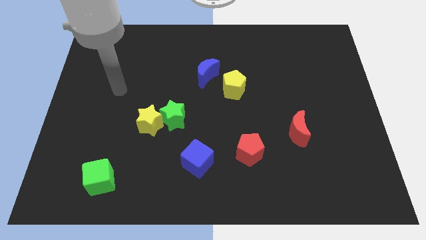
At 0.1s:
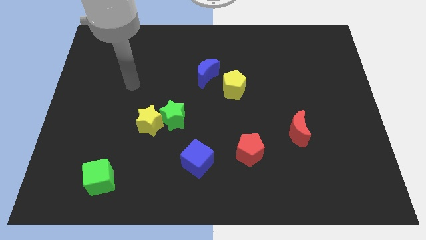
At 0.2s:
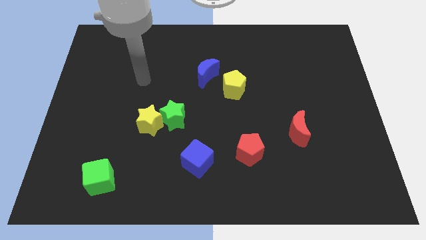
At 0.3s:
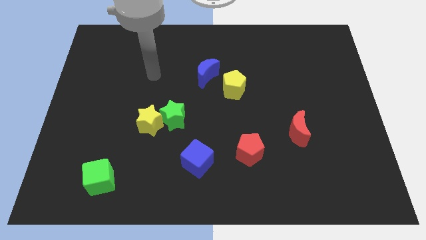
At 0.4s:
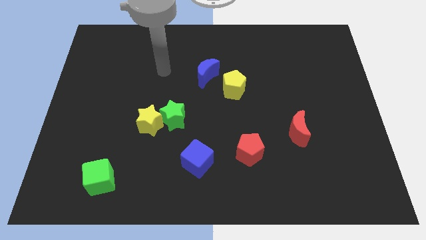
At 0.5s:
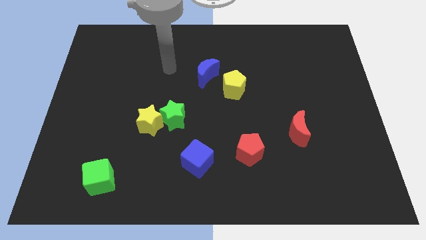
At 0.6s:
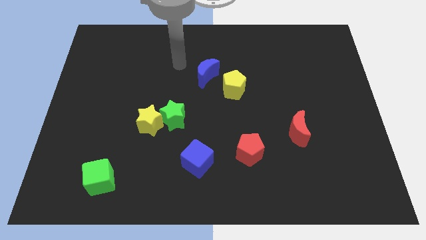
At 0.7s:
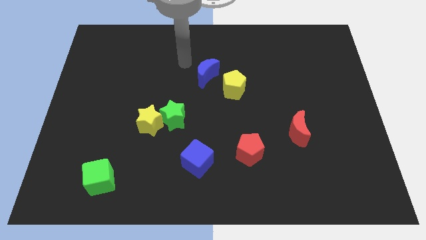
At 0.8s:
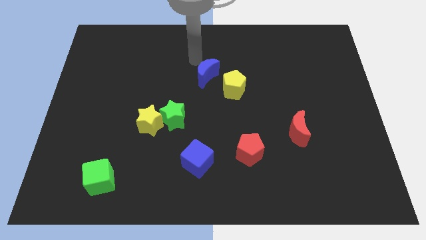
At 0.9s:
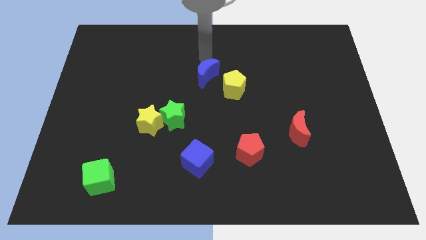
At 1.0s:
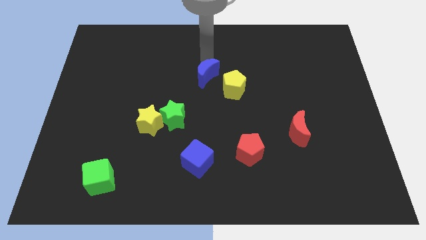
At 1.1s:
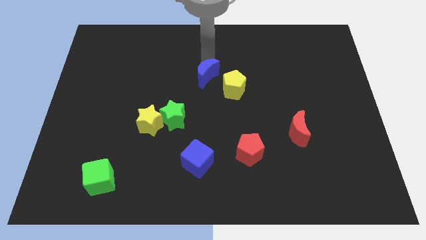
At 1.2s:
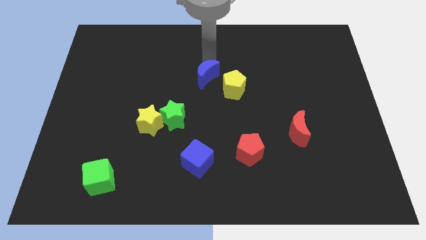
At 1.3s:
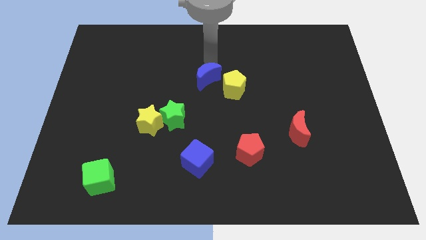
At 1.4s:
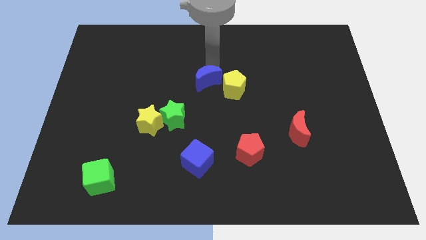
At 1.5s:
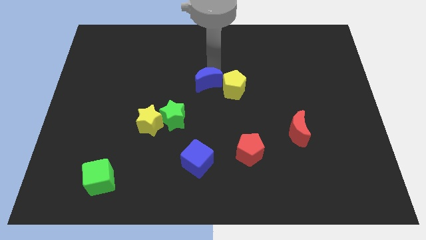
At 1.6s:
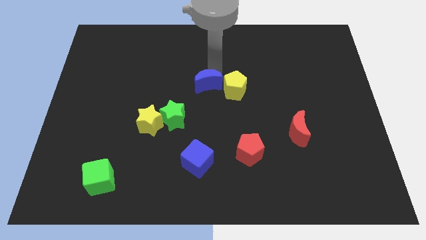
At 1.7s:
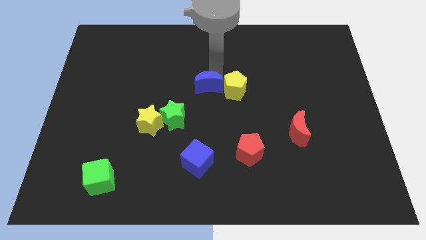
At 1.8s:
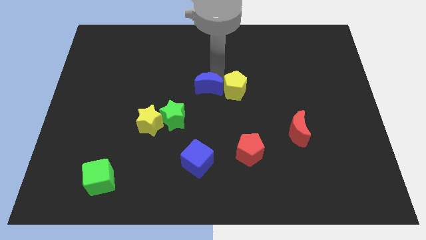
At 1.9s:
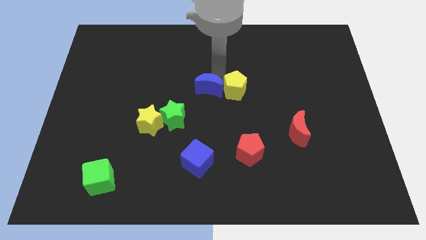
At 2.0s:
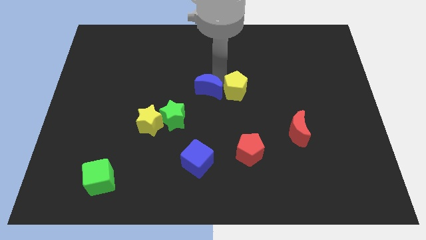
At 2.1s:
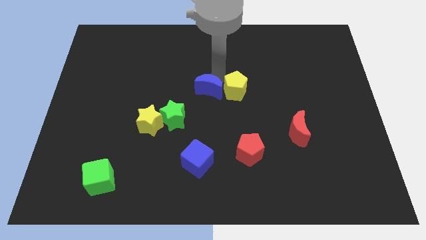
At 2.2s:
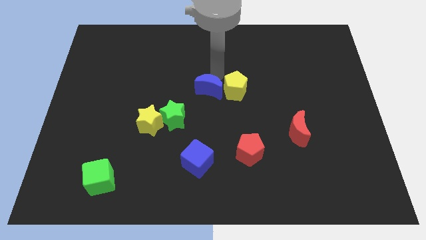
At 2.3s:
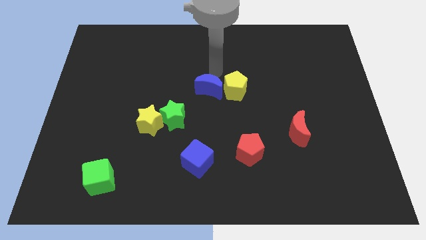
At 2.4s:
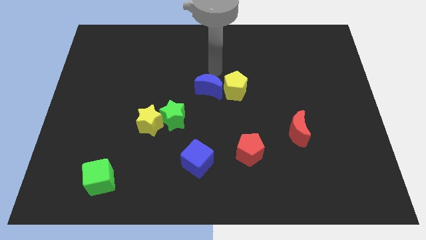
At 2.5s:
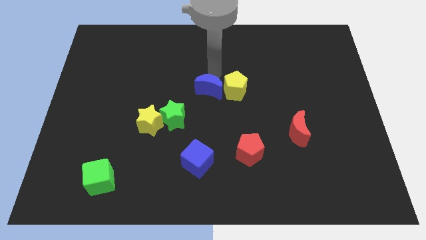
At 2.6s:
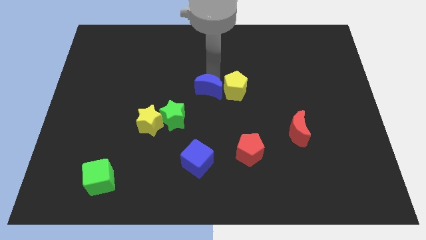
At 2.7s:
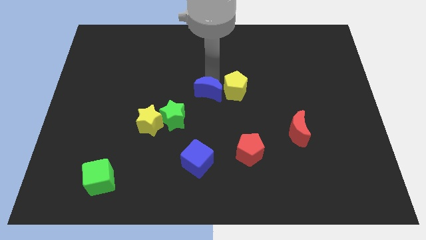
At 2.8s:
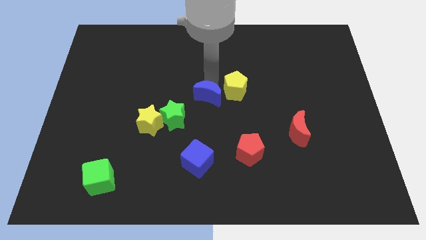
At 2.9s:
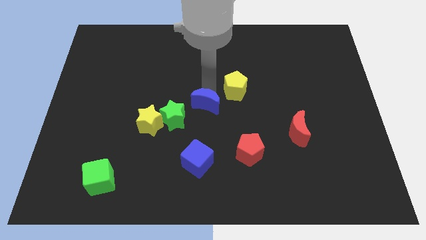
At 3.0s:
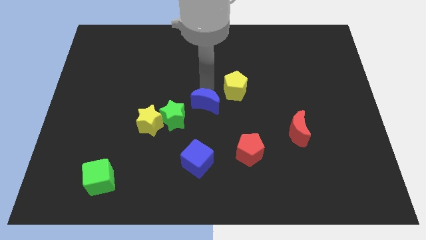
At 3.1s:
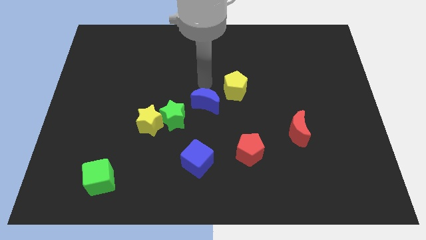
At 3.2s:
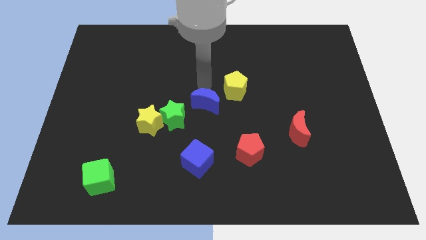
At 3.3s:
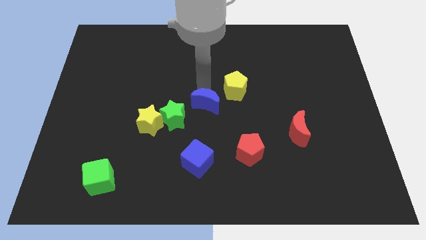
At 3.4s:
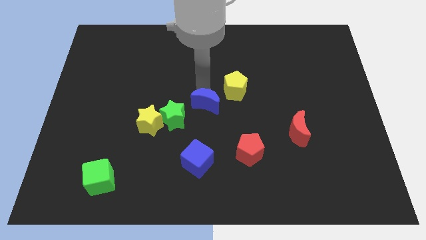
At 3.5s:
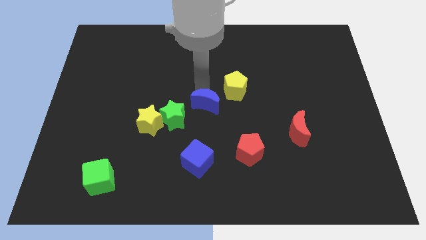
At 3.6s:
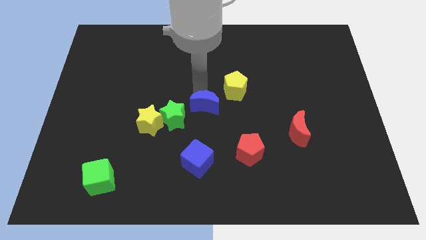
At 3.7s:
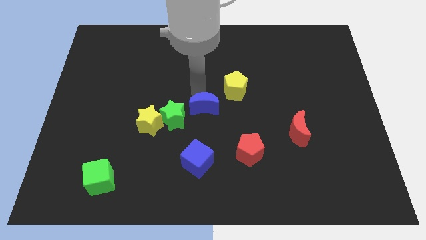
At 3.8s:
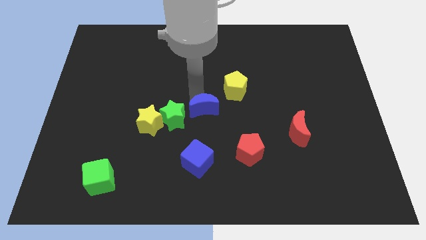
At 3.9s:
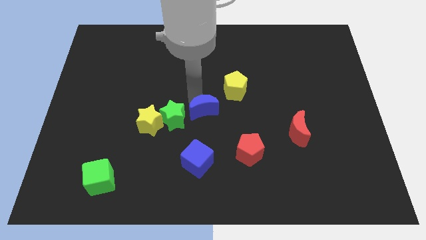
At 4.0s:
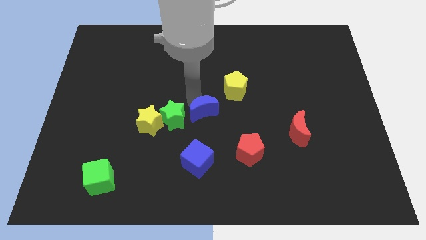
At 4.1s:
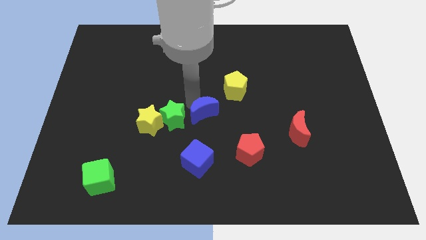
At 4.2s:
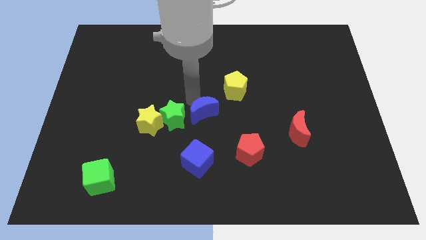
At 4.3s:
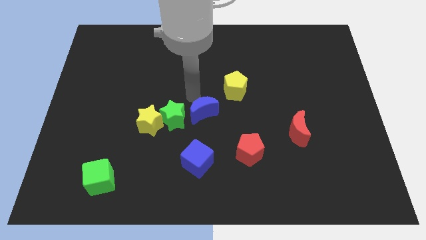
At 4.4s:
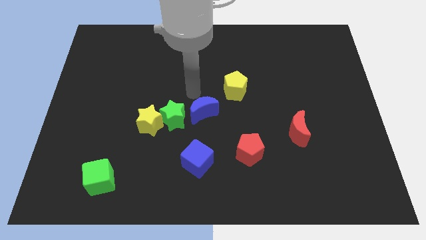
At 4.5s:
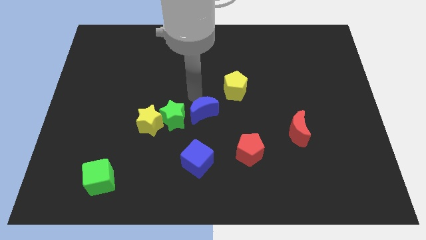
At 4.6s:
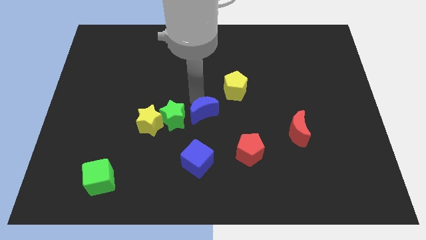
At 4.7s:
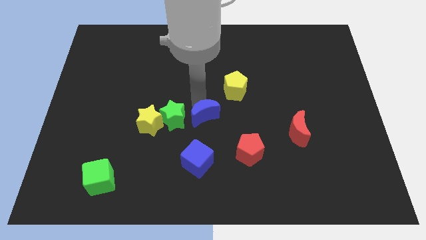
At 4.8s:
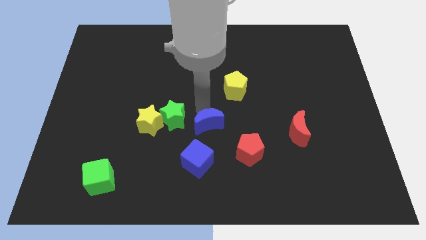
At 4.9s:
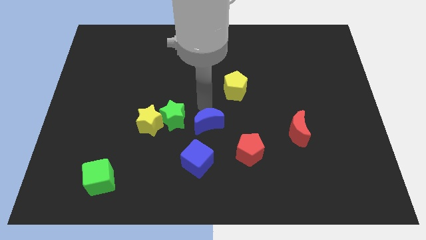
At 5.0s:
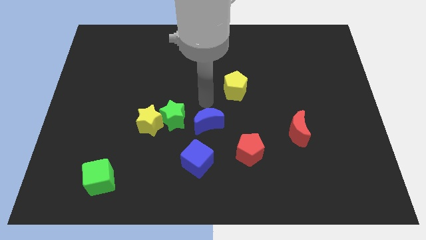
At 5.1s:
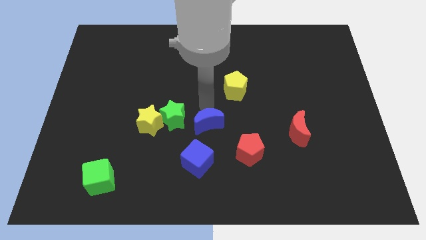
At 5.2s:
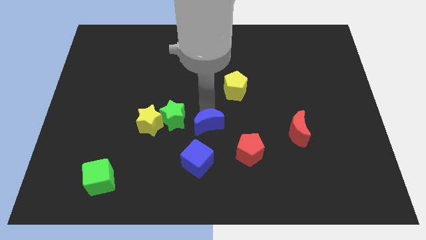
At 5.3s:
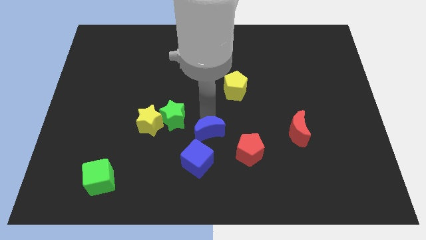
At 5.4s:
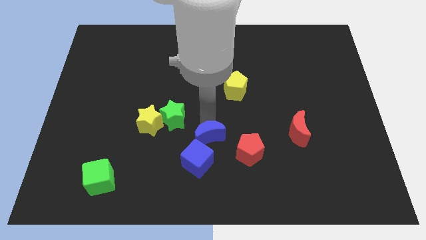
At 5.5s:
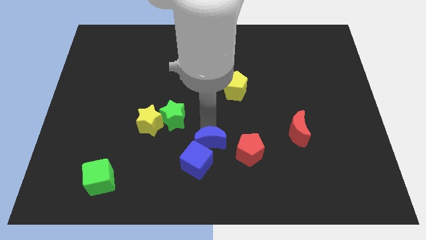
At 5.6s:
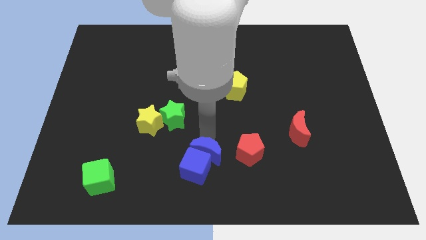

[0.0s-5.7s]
push the blue moon to the bottom side

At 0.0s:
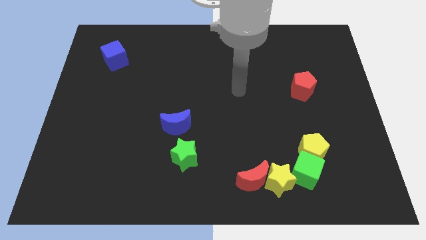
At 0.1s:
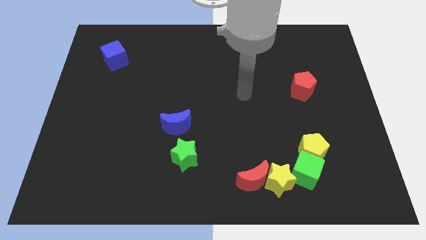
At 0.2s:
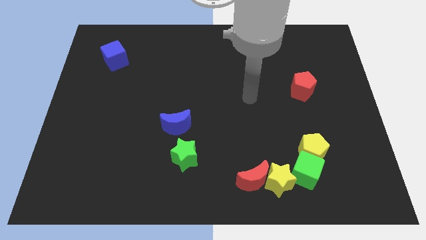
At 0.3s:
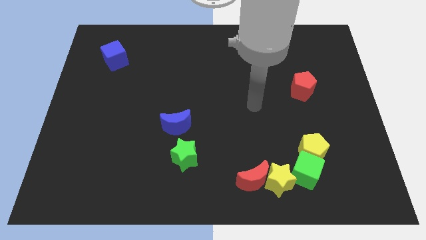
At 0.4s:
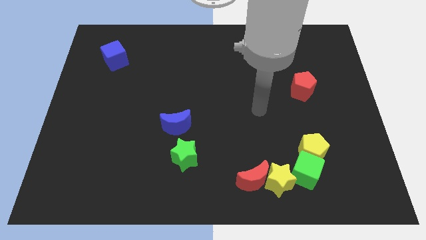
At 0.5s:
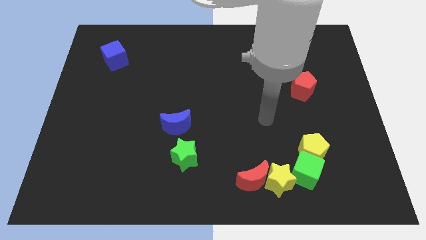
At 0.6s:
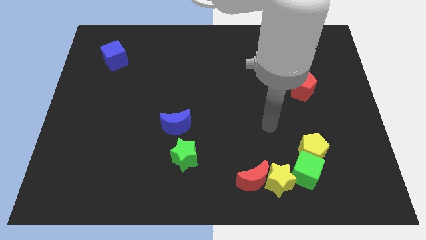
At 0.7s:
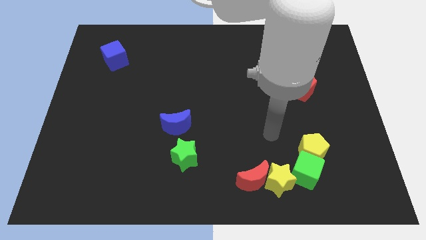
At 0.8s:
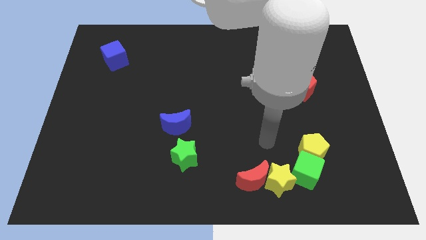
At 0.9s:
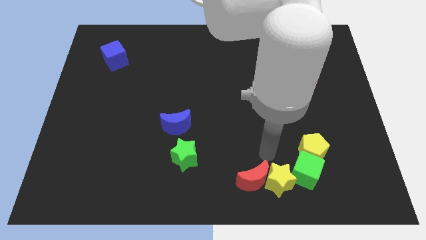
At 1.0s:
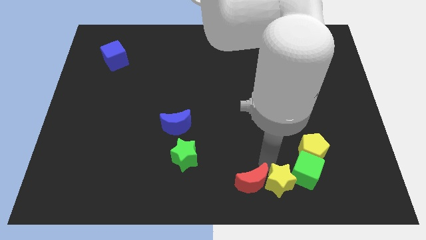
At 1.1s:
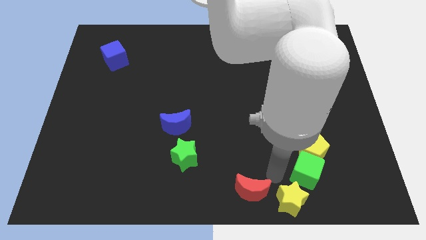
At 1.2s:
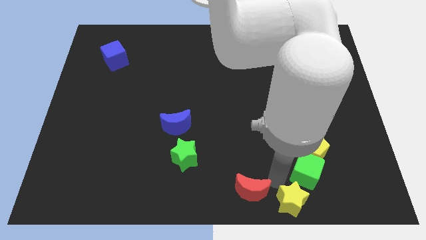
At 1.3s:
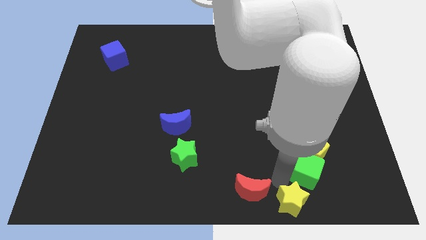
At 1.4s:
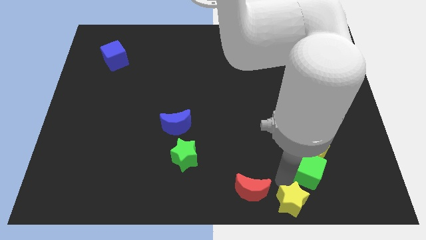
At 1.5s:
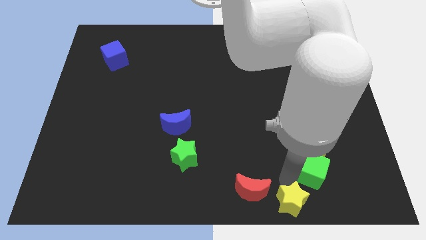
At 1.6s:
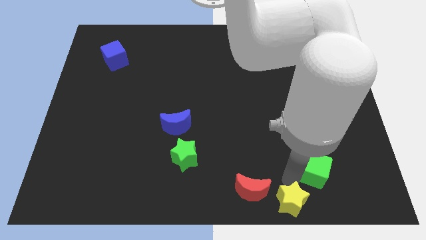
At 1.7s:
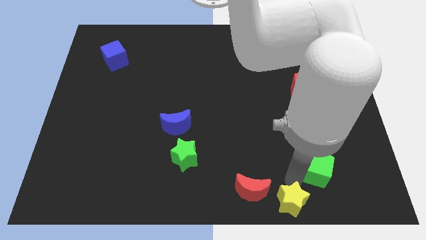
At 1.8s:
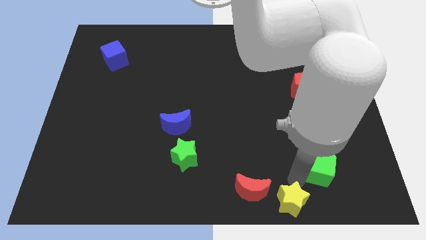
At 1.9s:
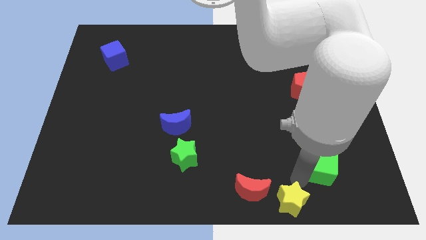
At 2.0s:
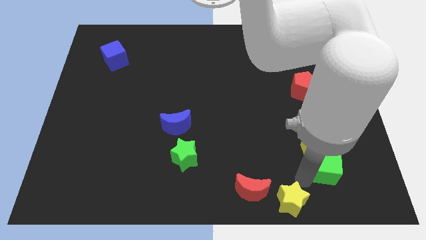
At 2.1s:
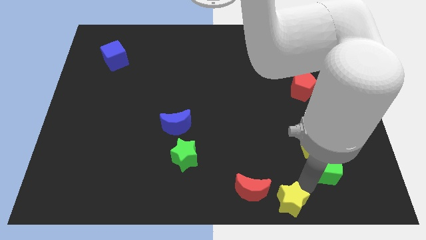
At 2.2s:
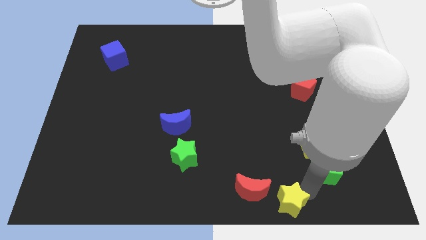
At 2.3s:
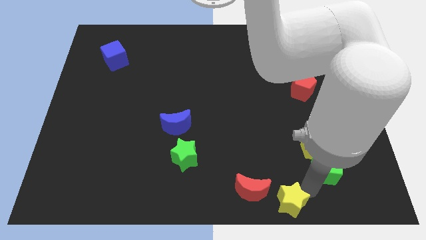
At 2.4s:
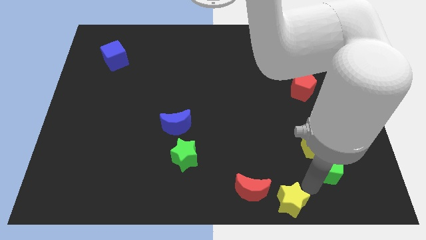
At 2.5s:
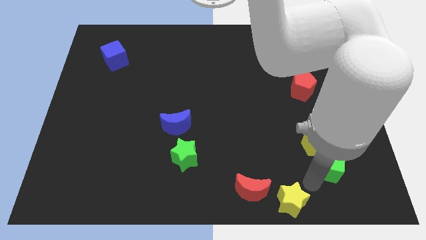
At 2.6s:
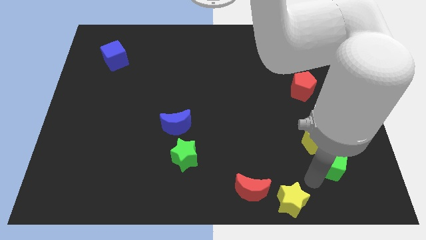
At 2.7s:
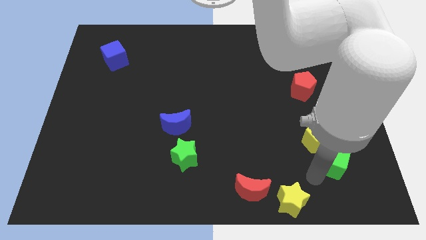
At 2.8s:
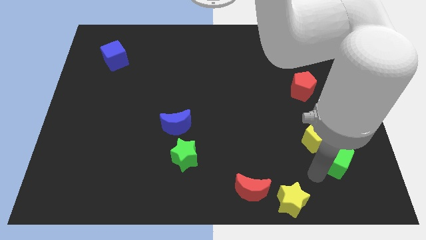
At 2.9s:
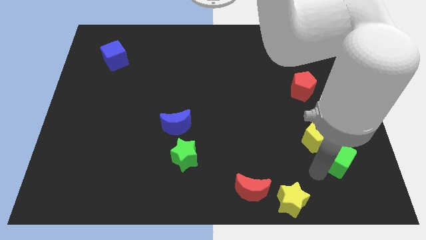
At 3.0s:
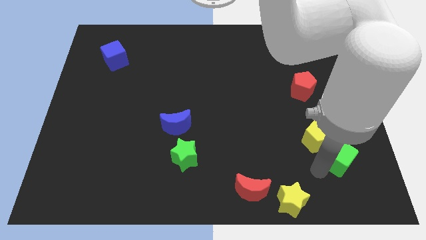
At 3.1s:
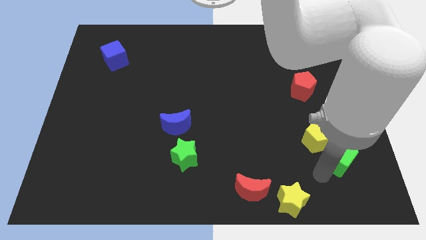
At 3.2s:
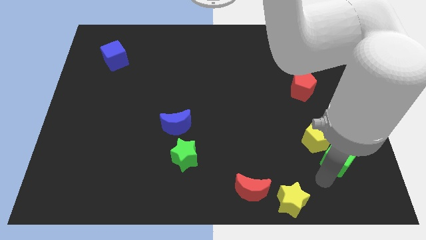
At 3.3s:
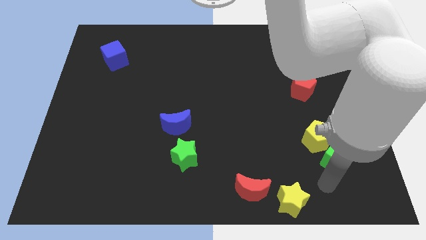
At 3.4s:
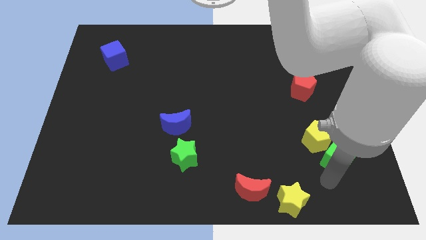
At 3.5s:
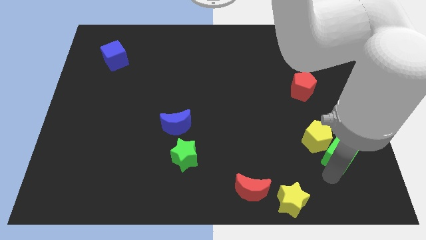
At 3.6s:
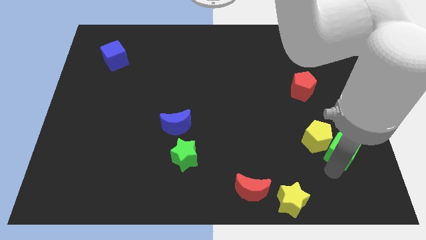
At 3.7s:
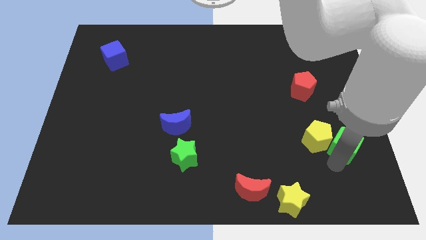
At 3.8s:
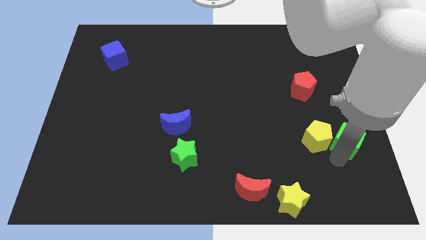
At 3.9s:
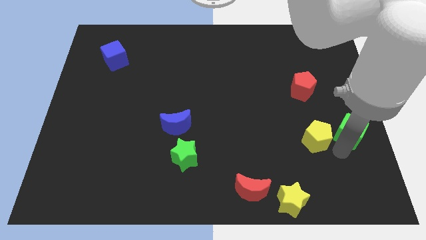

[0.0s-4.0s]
slide the green cube to the right side of the board
